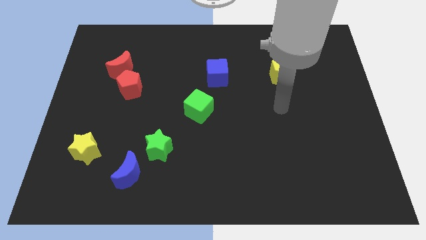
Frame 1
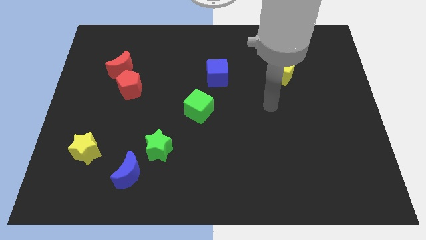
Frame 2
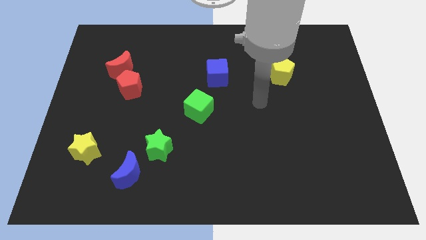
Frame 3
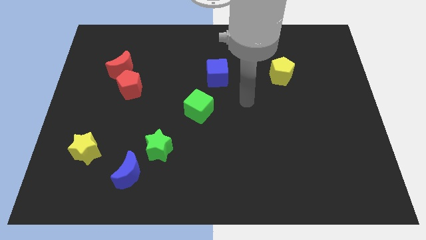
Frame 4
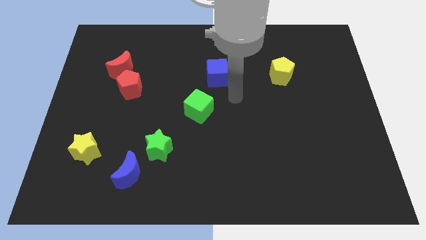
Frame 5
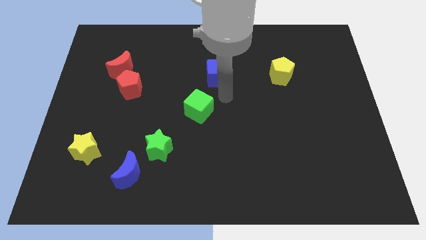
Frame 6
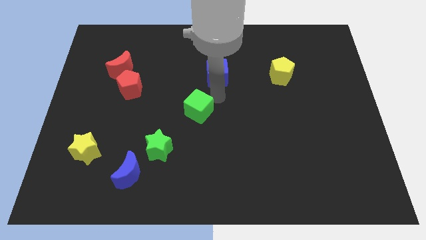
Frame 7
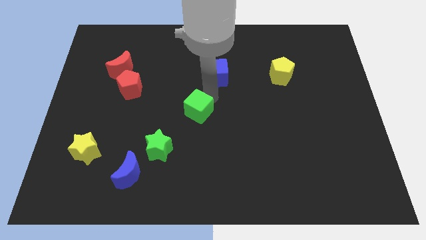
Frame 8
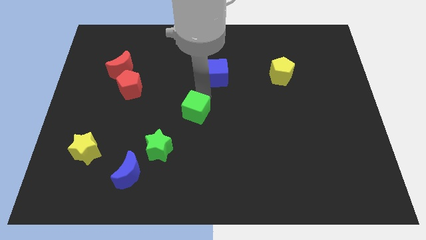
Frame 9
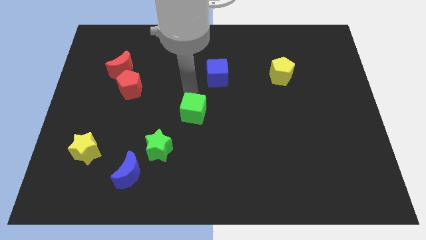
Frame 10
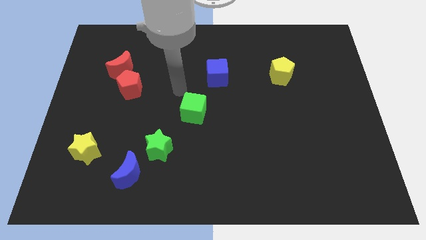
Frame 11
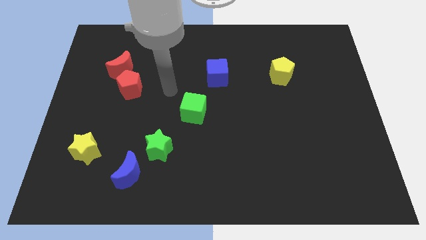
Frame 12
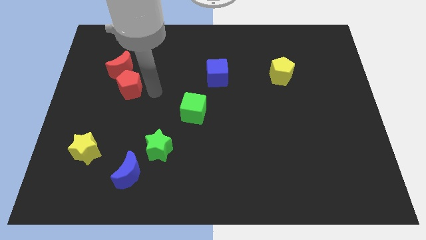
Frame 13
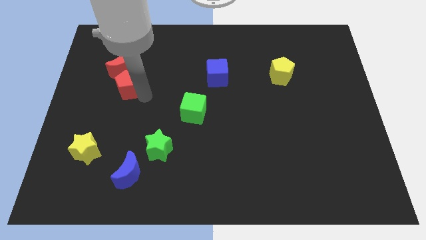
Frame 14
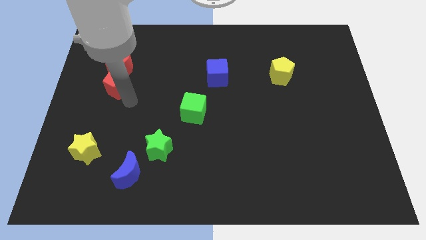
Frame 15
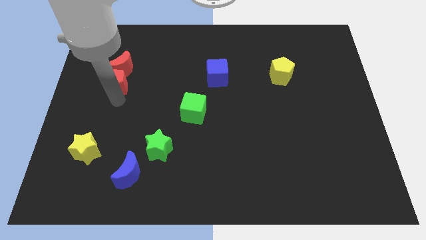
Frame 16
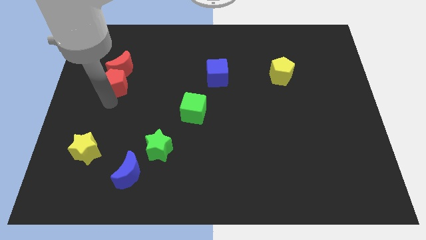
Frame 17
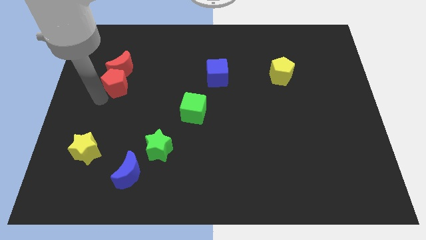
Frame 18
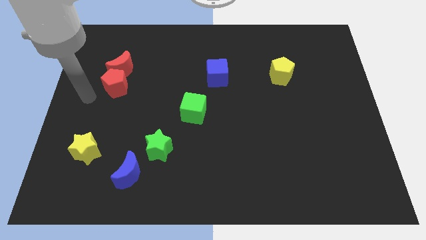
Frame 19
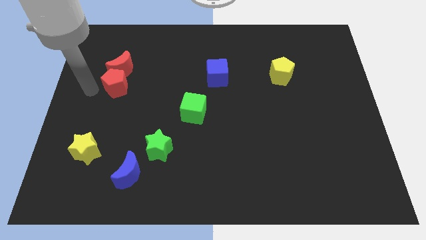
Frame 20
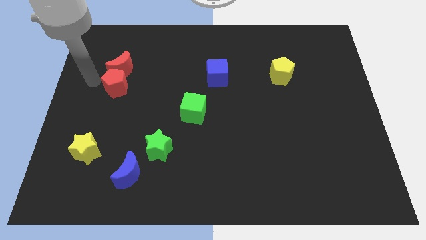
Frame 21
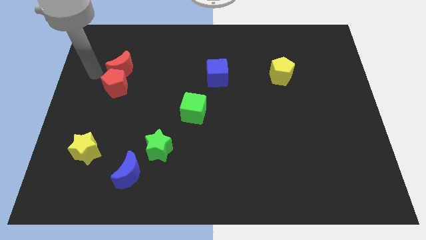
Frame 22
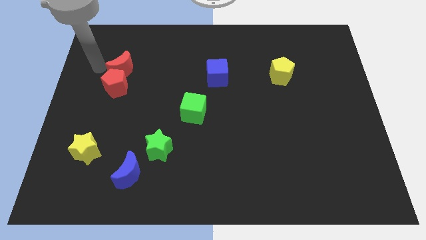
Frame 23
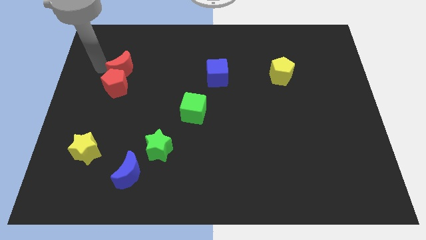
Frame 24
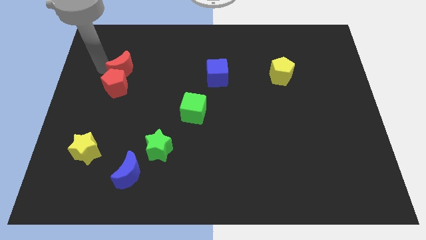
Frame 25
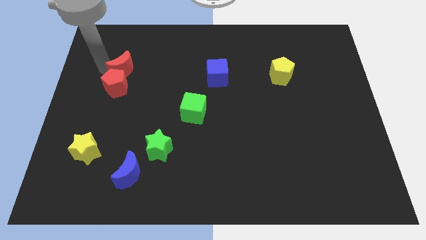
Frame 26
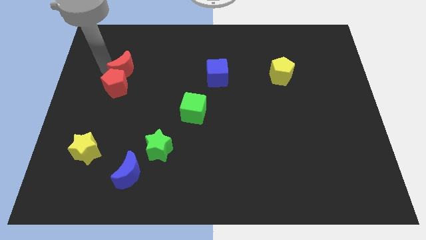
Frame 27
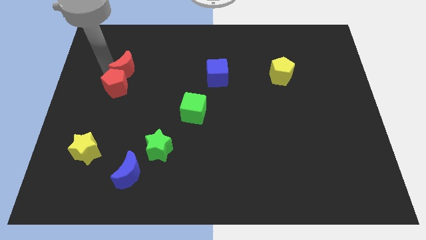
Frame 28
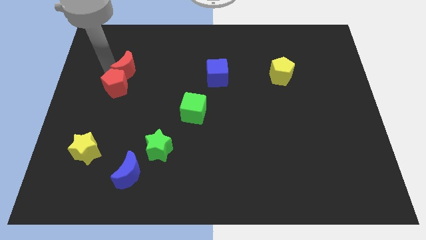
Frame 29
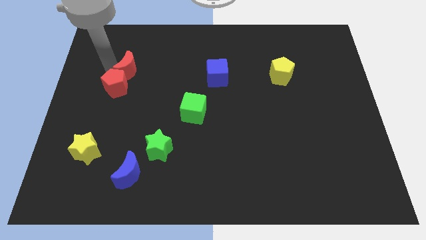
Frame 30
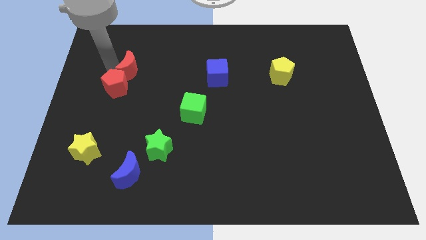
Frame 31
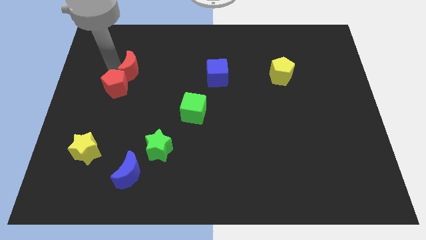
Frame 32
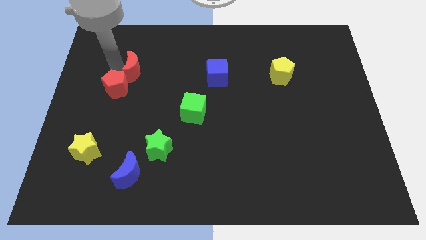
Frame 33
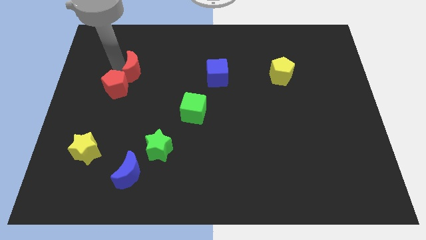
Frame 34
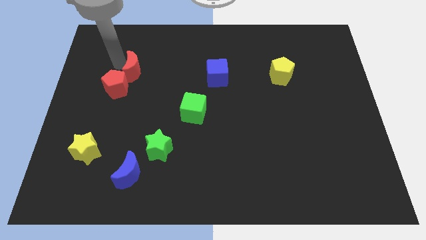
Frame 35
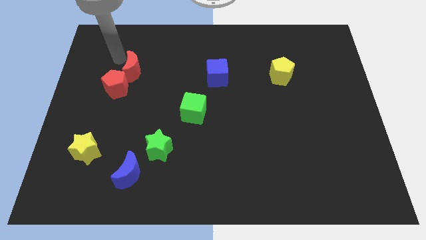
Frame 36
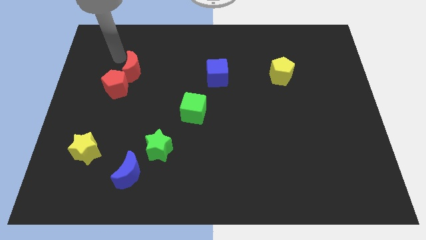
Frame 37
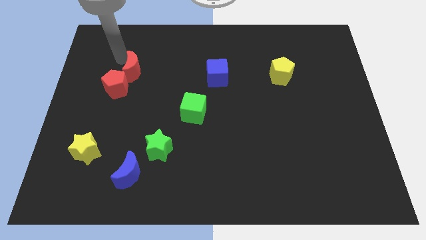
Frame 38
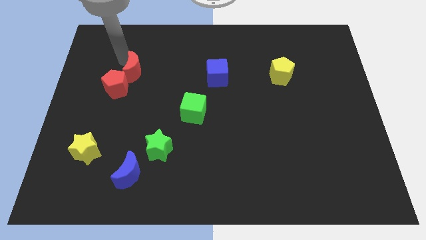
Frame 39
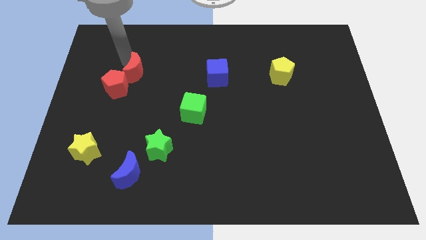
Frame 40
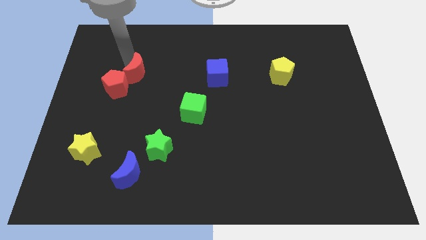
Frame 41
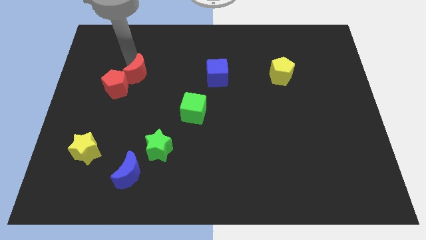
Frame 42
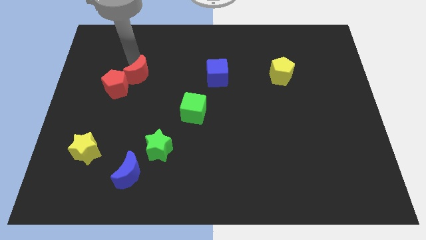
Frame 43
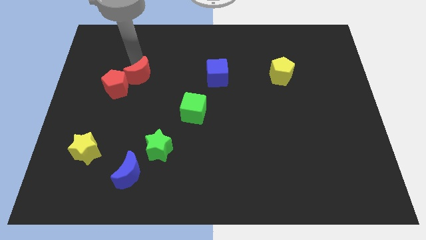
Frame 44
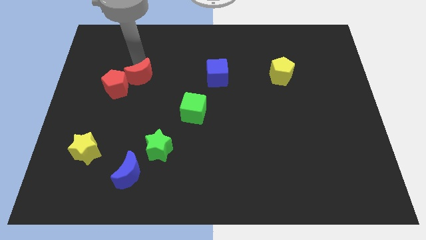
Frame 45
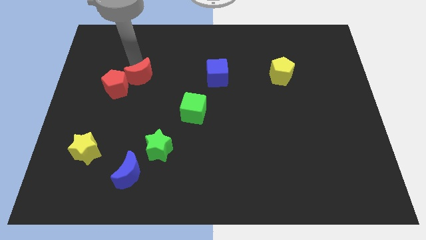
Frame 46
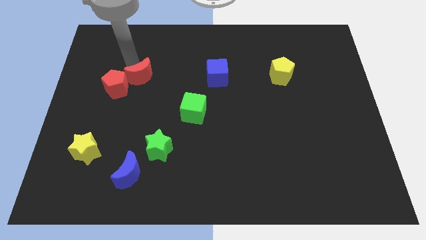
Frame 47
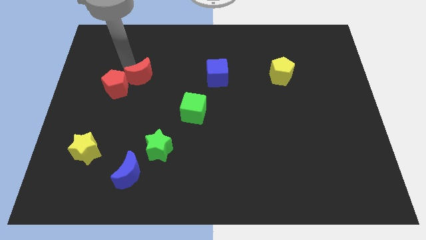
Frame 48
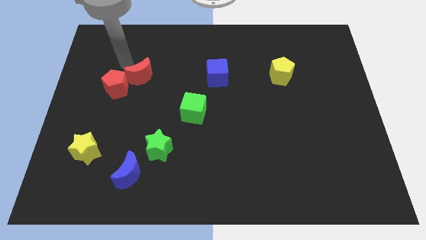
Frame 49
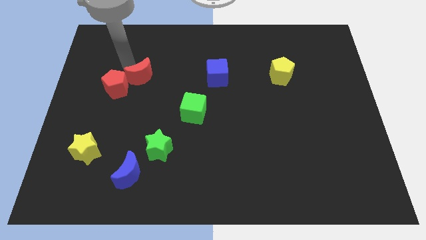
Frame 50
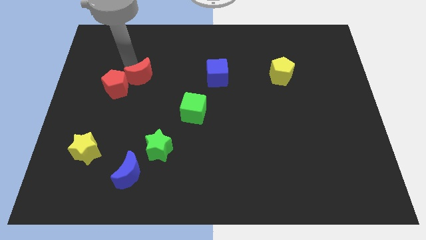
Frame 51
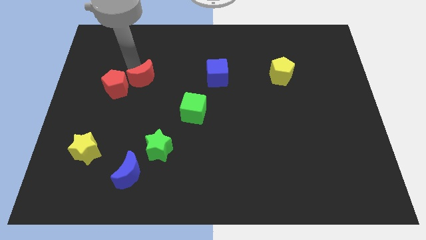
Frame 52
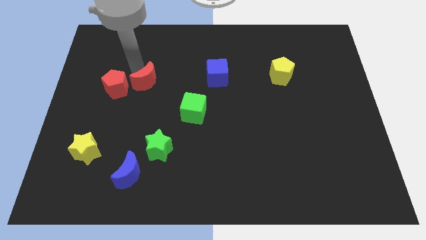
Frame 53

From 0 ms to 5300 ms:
slide the red moon downwards and then to the right a little bit

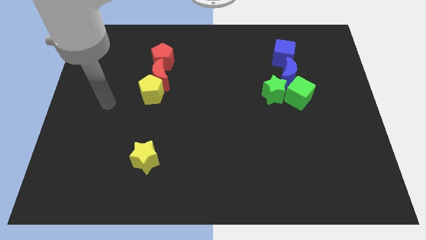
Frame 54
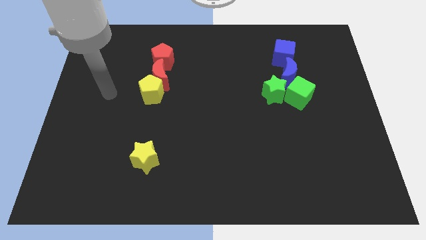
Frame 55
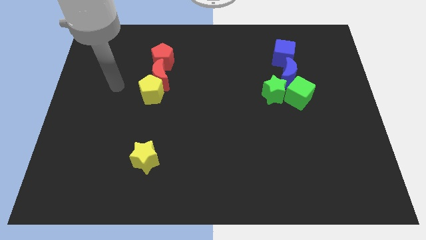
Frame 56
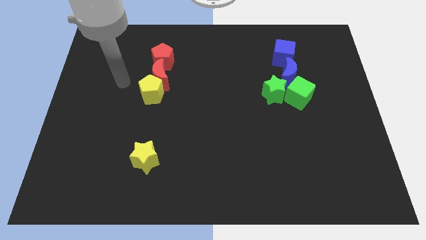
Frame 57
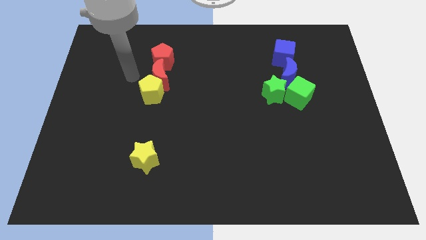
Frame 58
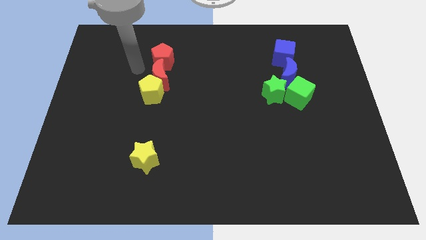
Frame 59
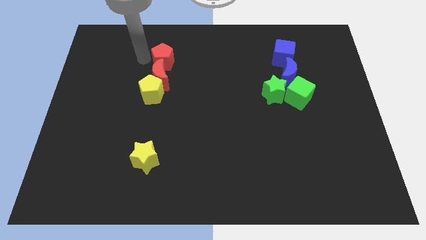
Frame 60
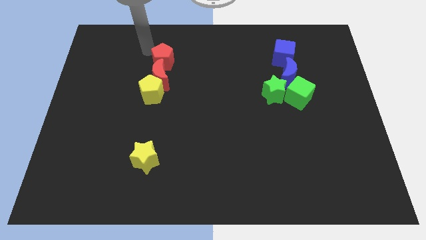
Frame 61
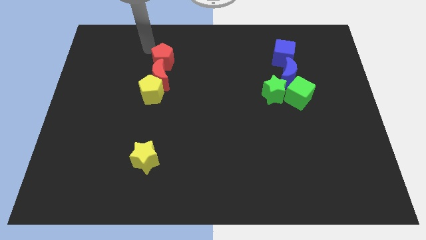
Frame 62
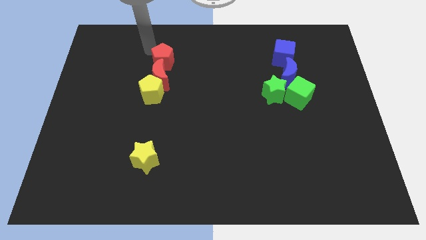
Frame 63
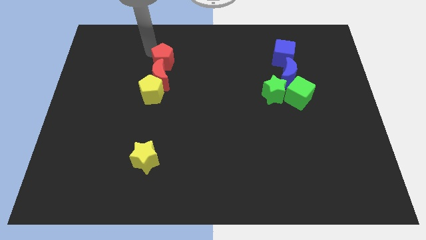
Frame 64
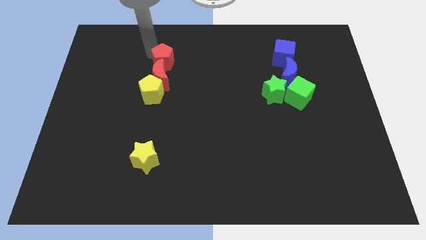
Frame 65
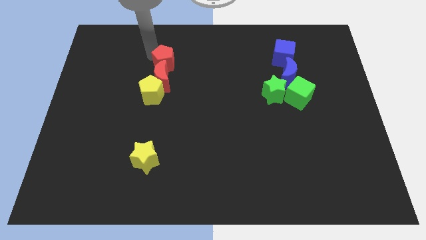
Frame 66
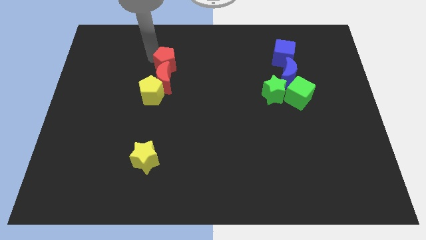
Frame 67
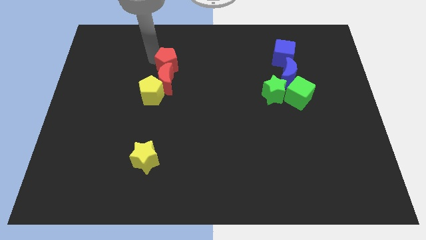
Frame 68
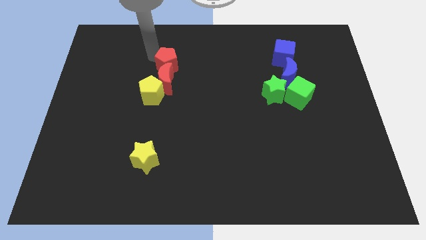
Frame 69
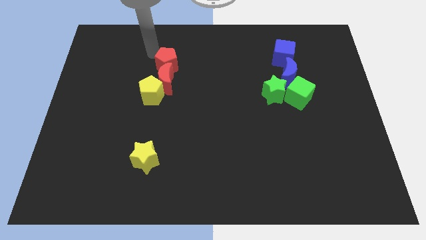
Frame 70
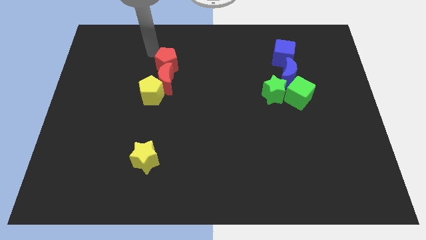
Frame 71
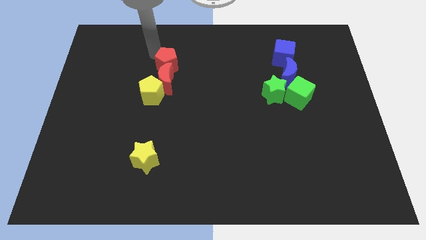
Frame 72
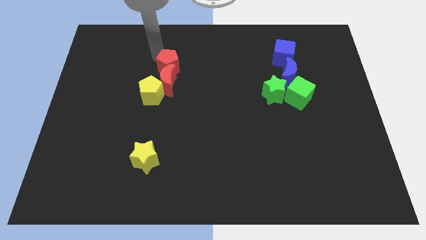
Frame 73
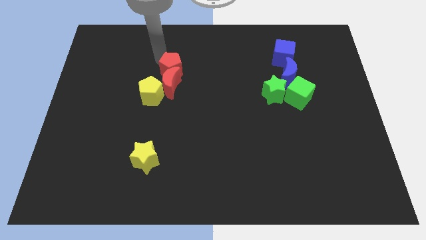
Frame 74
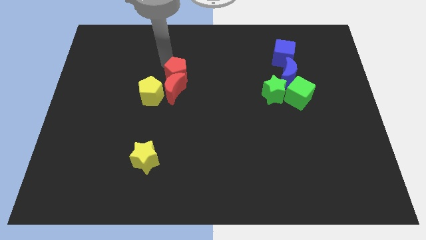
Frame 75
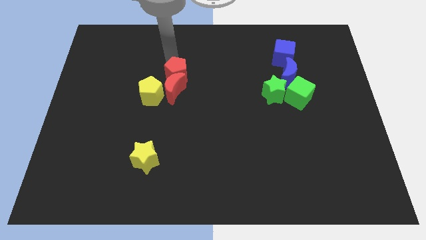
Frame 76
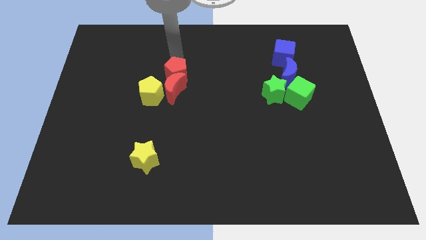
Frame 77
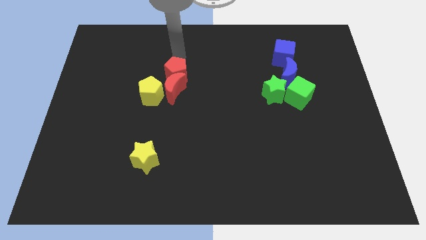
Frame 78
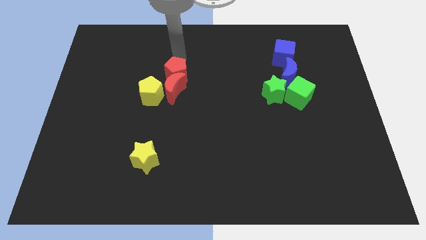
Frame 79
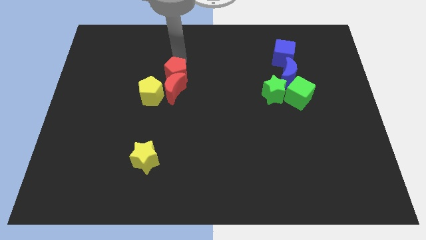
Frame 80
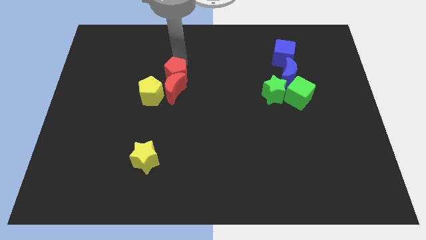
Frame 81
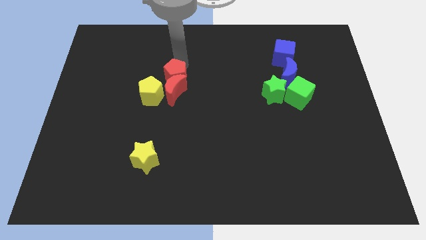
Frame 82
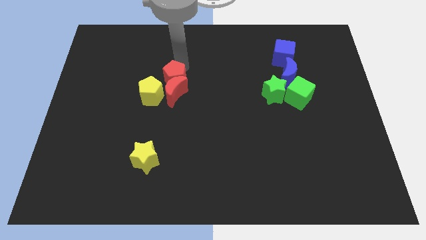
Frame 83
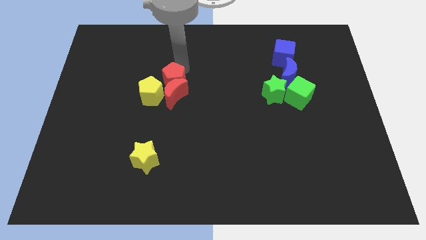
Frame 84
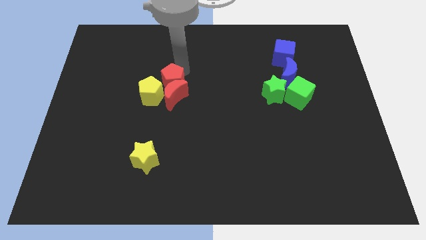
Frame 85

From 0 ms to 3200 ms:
slightly push the red pentagon down
